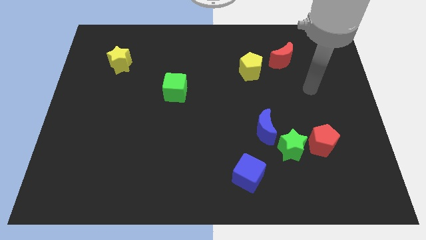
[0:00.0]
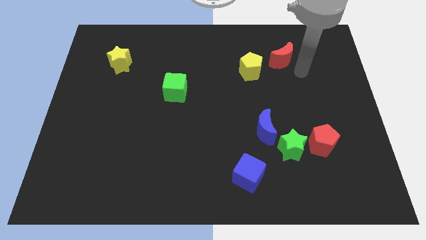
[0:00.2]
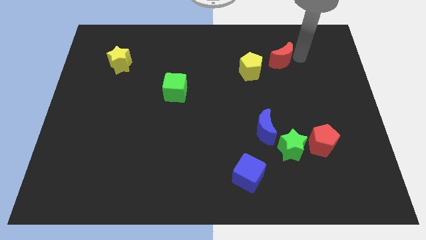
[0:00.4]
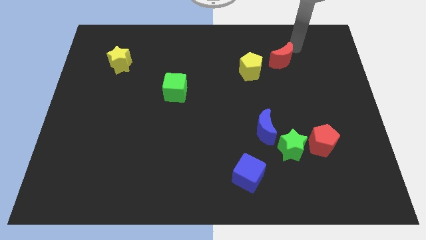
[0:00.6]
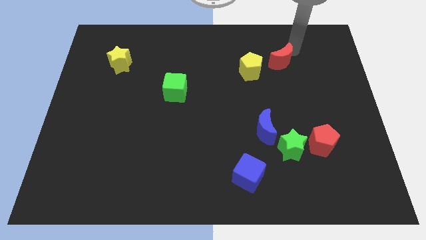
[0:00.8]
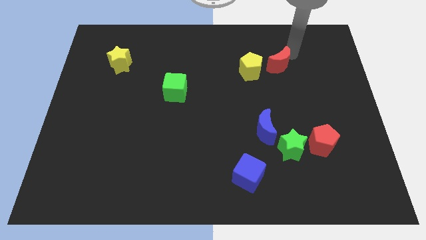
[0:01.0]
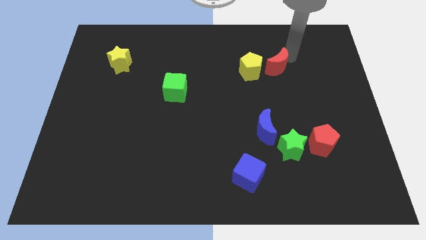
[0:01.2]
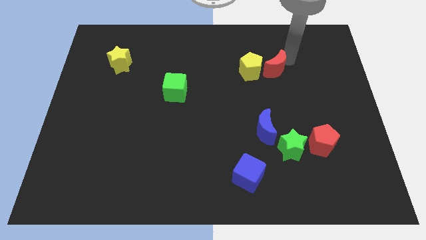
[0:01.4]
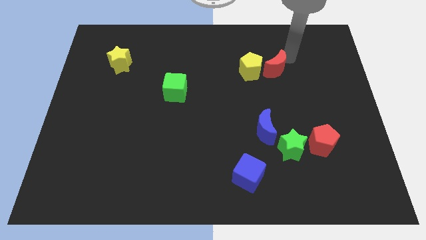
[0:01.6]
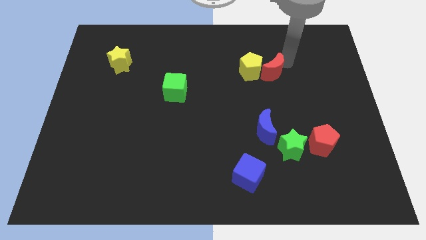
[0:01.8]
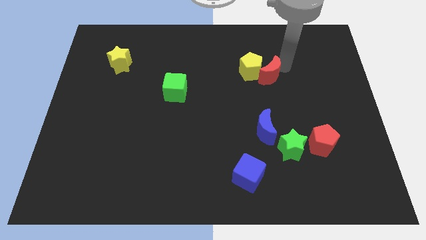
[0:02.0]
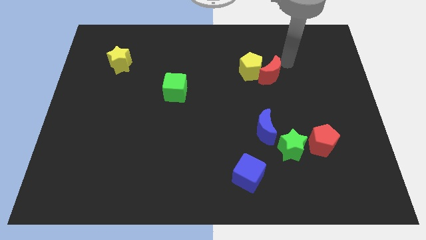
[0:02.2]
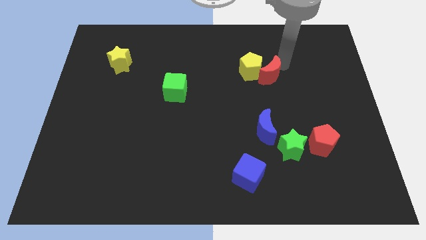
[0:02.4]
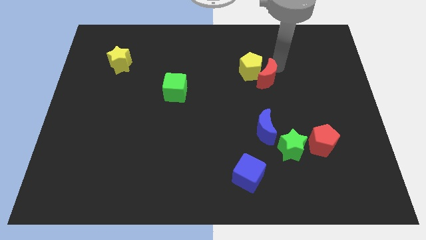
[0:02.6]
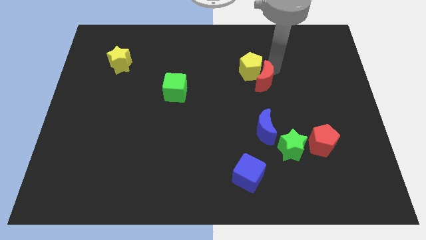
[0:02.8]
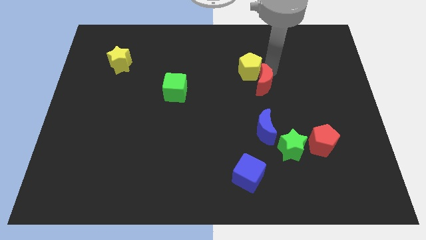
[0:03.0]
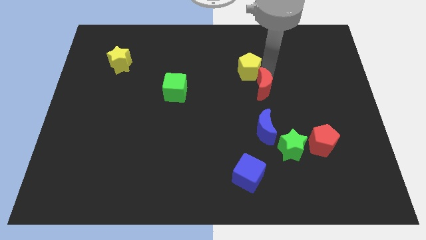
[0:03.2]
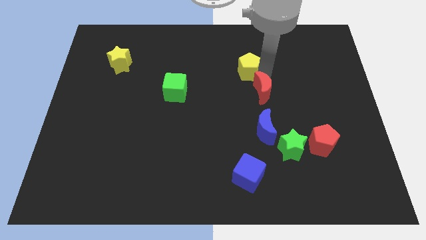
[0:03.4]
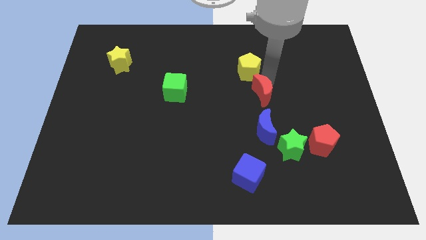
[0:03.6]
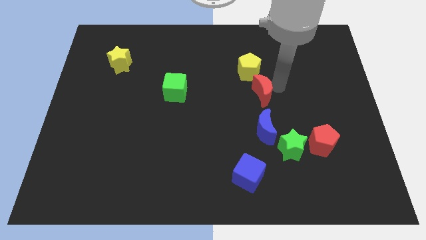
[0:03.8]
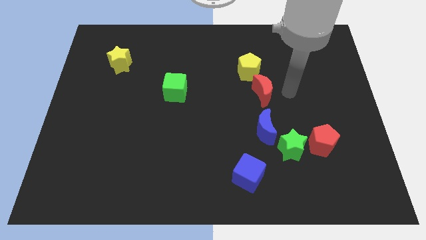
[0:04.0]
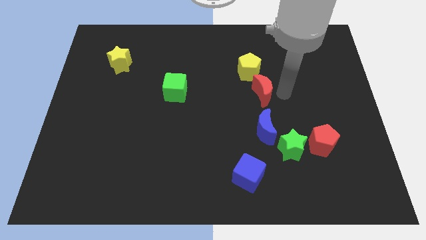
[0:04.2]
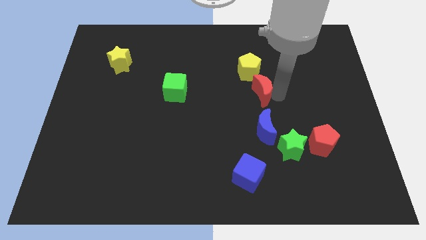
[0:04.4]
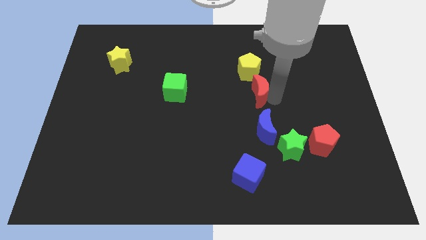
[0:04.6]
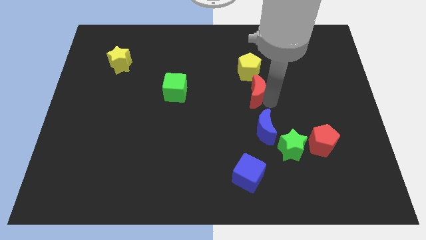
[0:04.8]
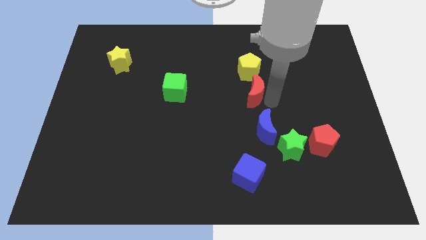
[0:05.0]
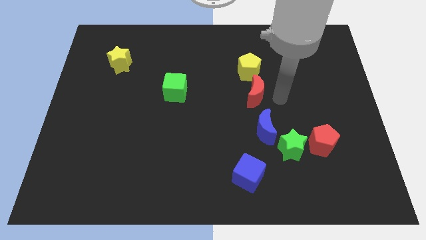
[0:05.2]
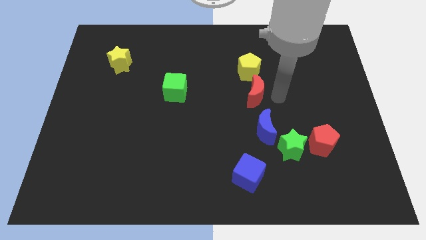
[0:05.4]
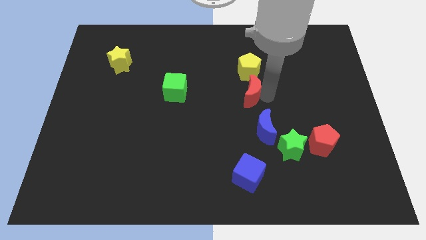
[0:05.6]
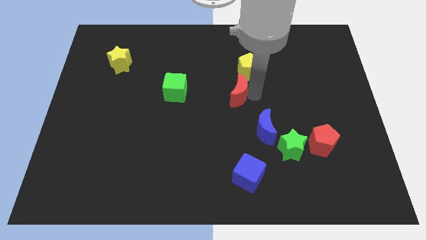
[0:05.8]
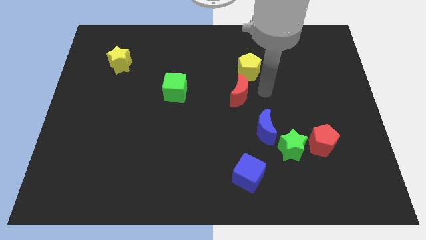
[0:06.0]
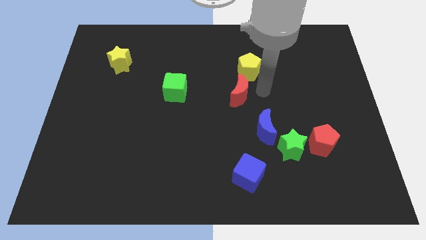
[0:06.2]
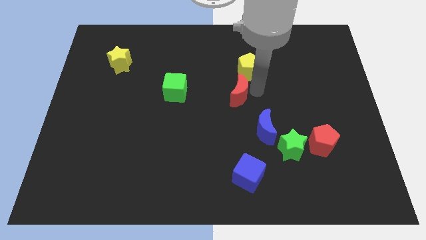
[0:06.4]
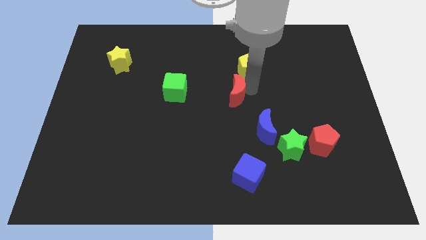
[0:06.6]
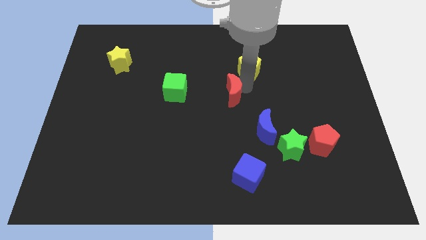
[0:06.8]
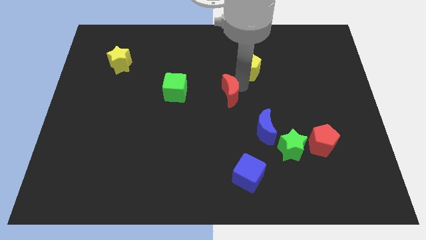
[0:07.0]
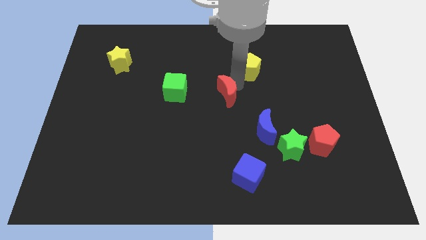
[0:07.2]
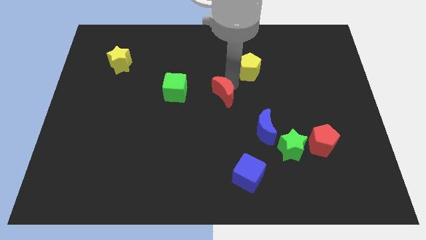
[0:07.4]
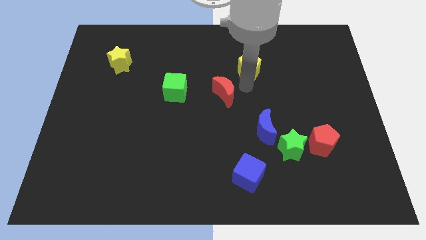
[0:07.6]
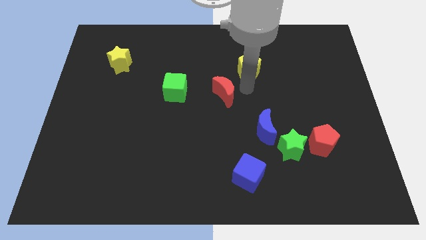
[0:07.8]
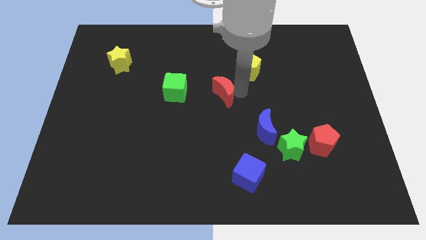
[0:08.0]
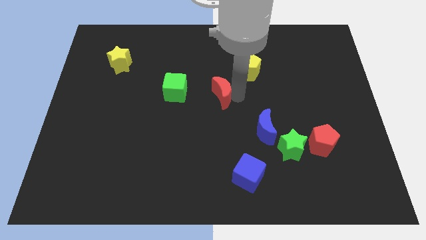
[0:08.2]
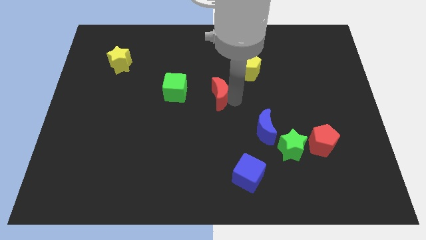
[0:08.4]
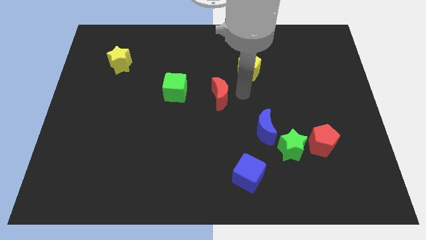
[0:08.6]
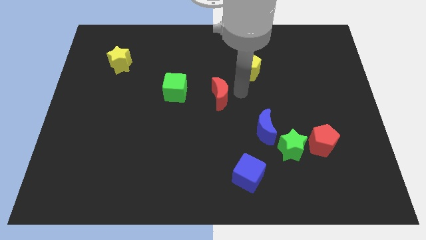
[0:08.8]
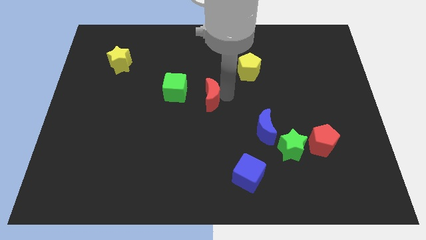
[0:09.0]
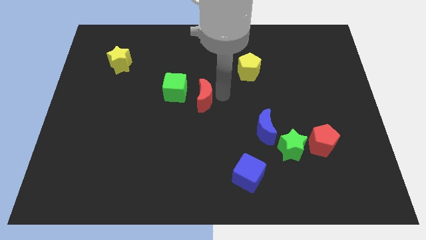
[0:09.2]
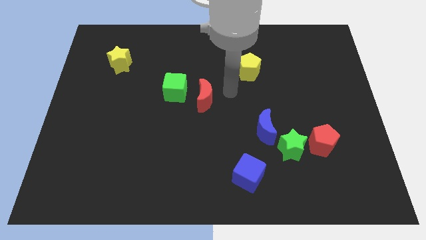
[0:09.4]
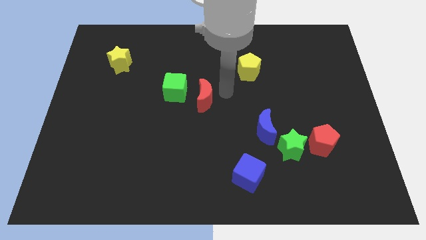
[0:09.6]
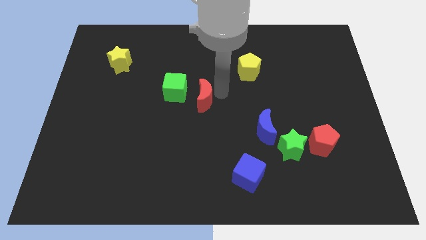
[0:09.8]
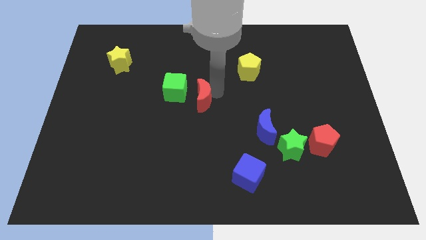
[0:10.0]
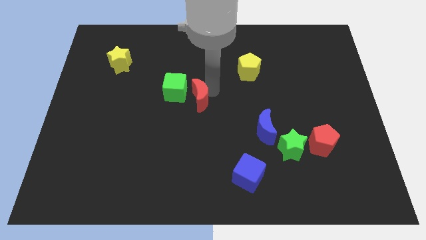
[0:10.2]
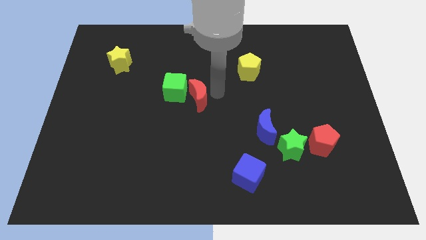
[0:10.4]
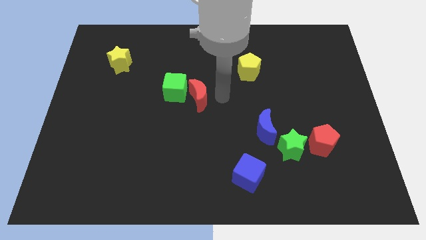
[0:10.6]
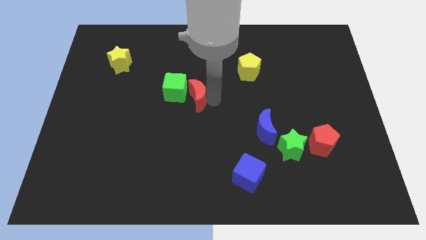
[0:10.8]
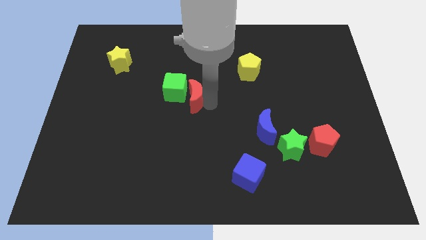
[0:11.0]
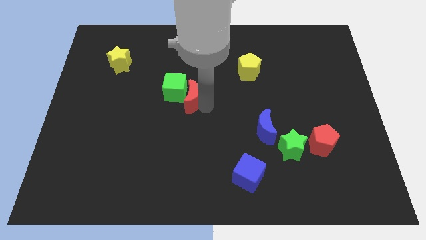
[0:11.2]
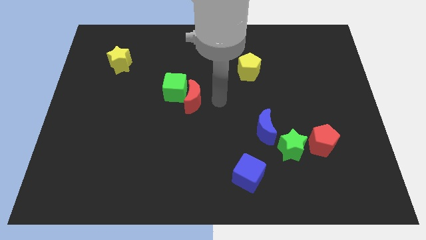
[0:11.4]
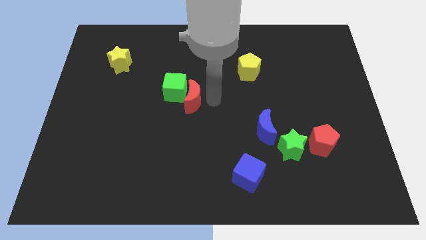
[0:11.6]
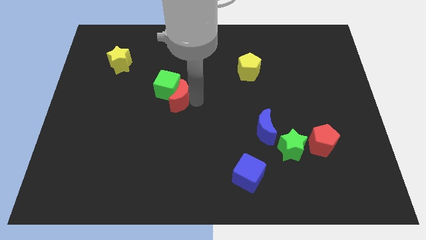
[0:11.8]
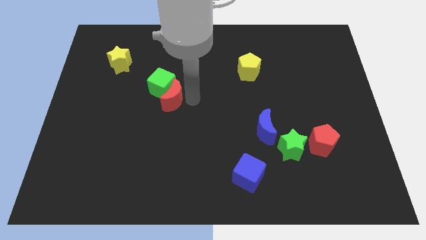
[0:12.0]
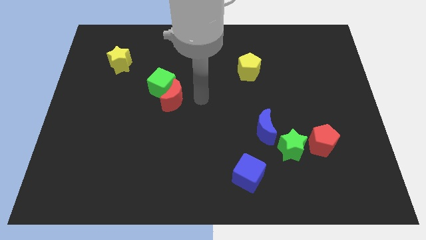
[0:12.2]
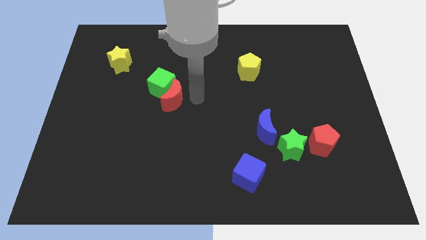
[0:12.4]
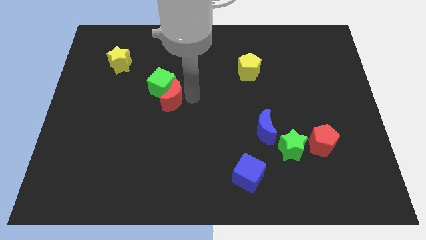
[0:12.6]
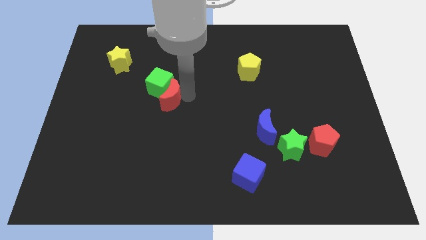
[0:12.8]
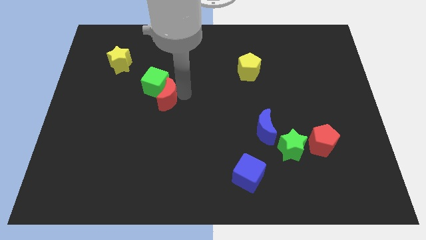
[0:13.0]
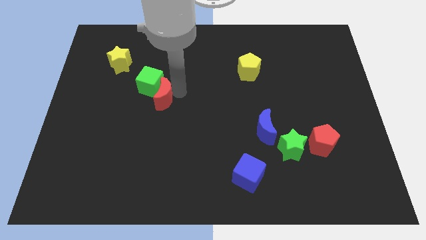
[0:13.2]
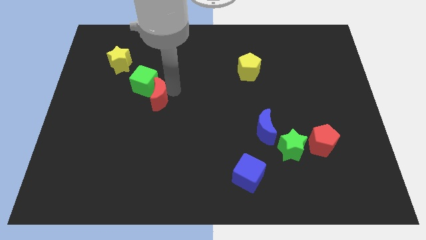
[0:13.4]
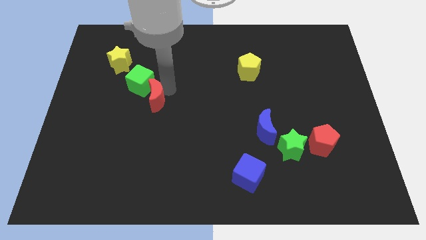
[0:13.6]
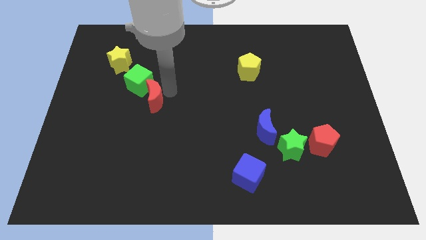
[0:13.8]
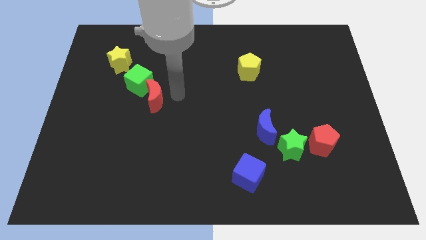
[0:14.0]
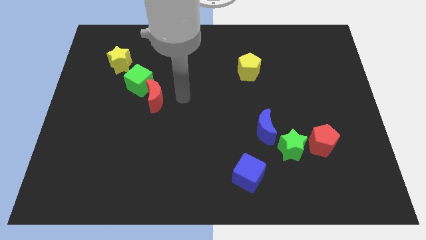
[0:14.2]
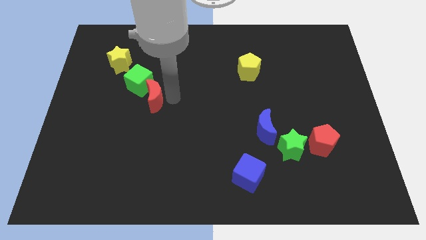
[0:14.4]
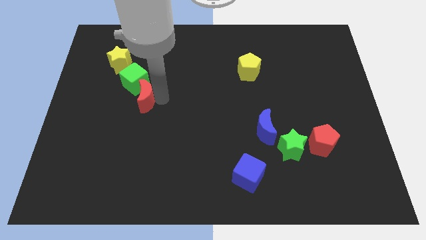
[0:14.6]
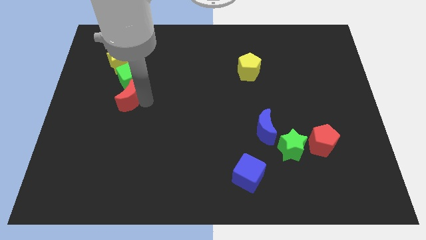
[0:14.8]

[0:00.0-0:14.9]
slide the red moon to the bottom side of the yellow star
